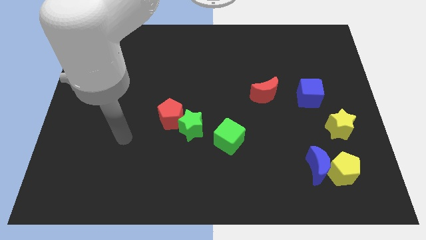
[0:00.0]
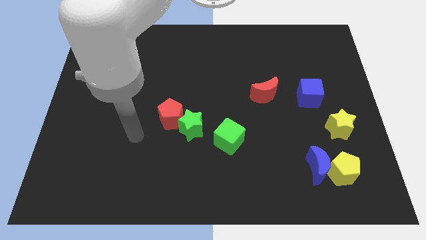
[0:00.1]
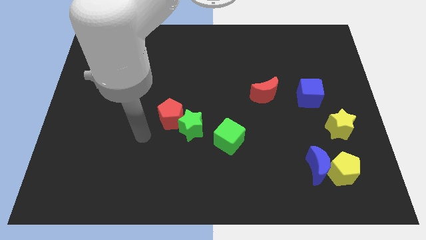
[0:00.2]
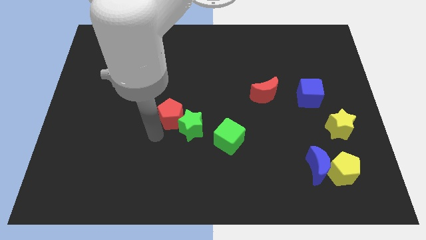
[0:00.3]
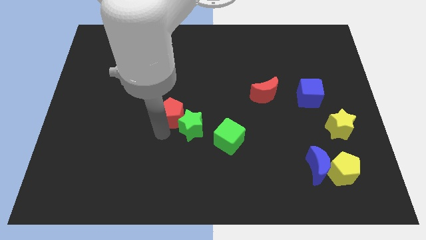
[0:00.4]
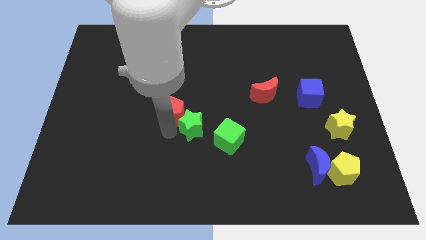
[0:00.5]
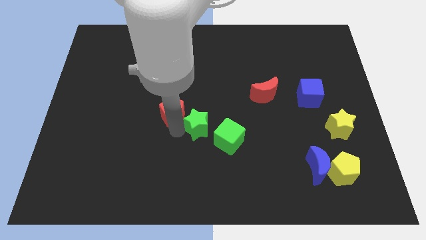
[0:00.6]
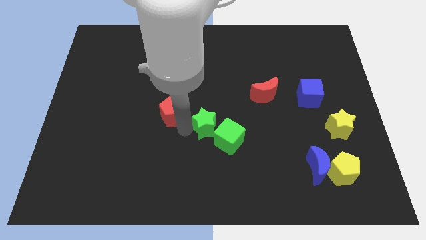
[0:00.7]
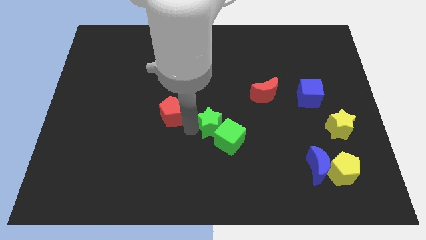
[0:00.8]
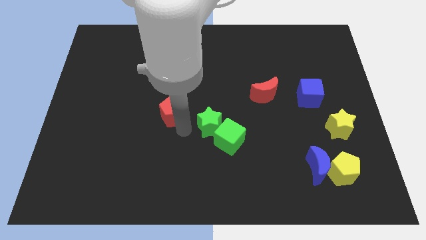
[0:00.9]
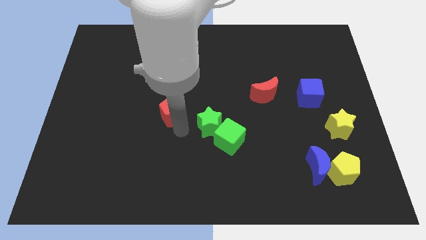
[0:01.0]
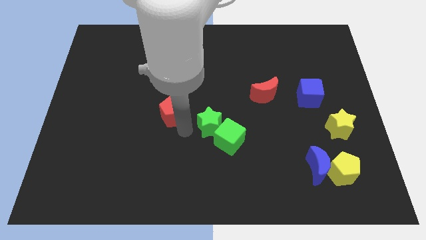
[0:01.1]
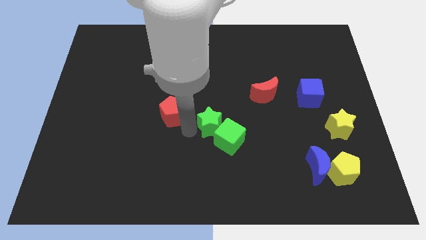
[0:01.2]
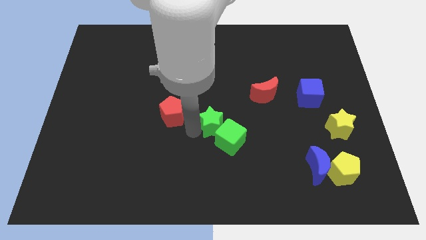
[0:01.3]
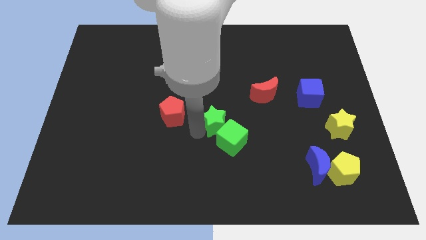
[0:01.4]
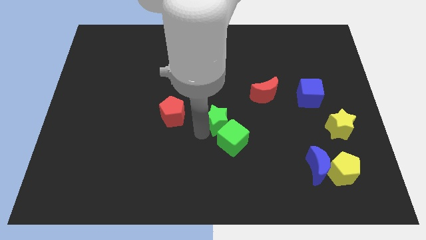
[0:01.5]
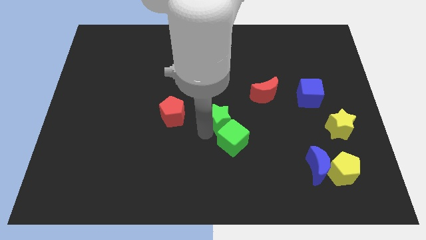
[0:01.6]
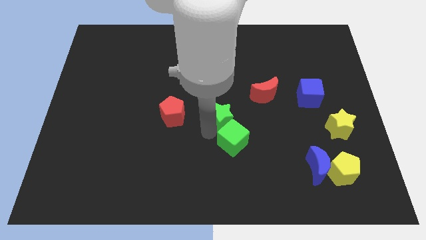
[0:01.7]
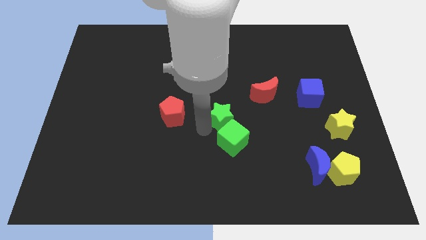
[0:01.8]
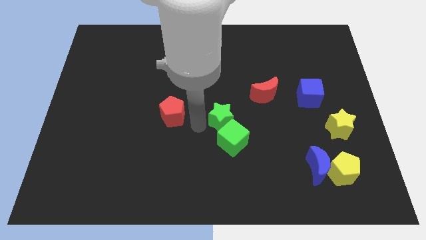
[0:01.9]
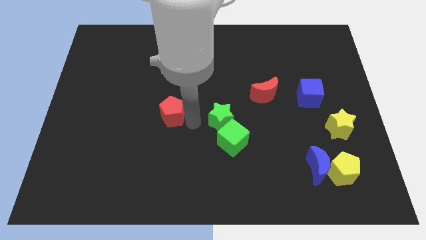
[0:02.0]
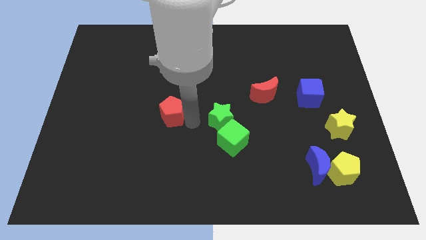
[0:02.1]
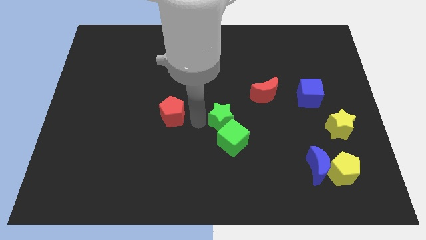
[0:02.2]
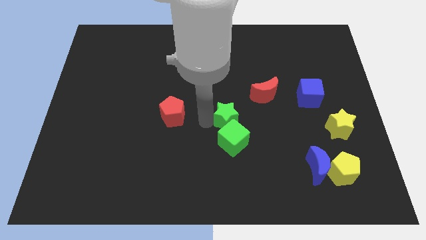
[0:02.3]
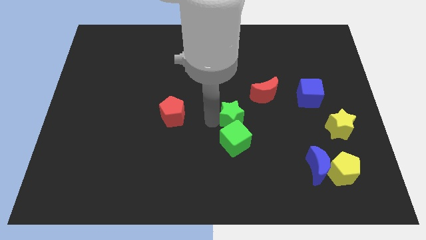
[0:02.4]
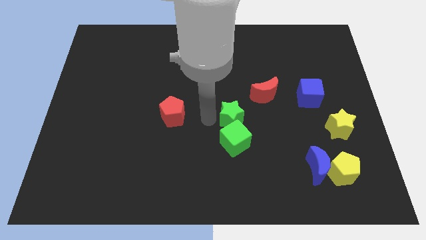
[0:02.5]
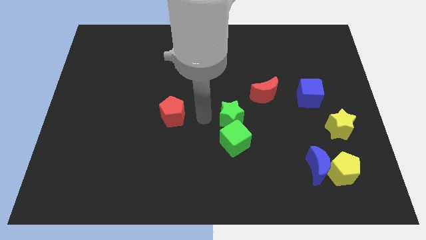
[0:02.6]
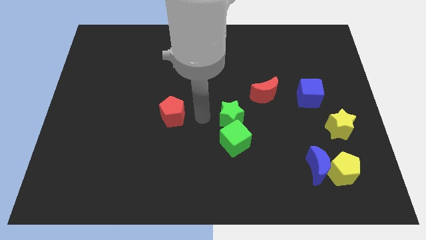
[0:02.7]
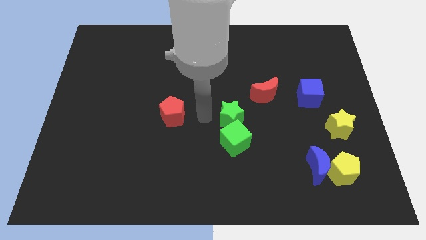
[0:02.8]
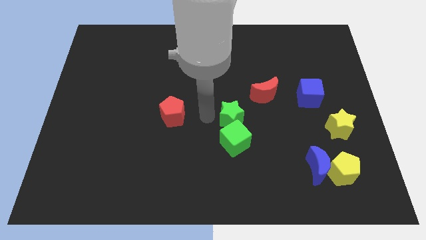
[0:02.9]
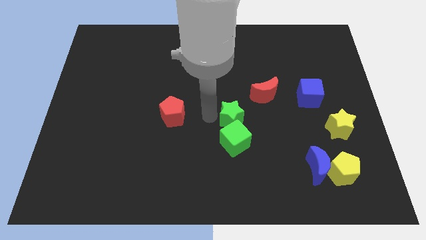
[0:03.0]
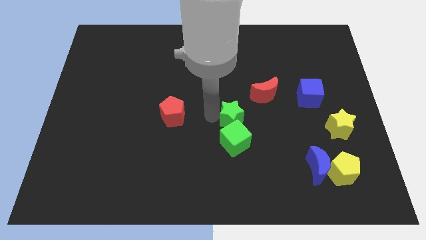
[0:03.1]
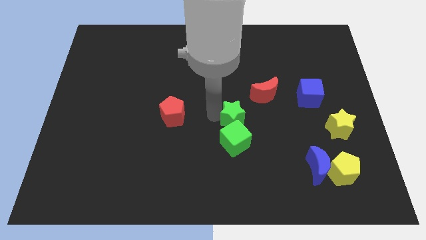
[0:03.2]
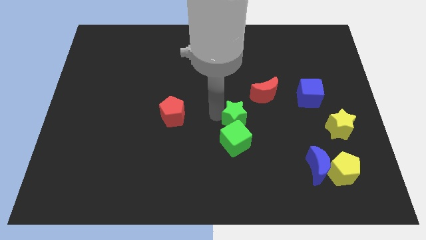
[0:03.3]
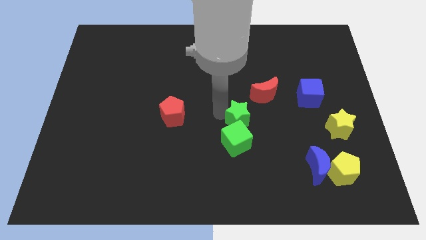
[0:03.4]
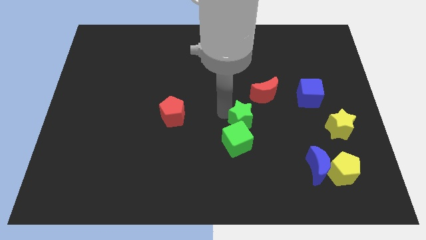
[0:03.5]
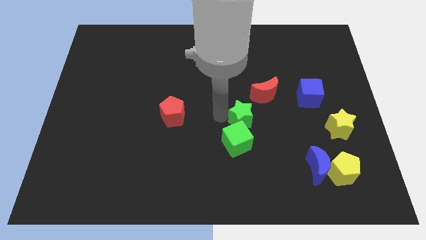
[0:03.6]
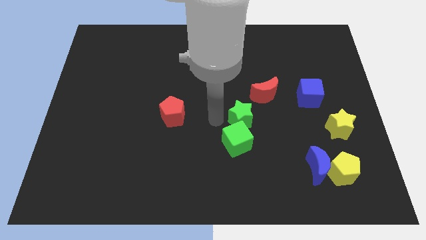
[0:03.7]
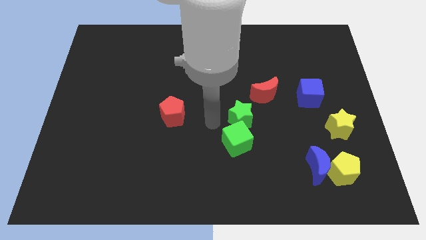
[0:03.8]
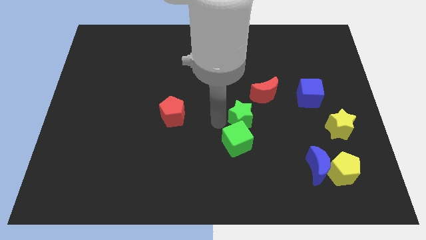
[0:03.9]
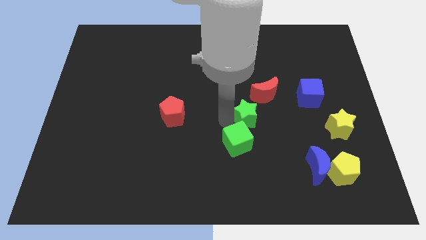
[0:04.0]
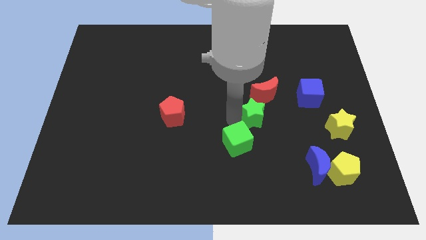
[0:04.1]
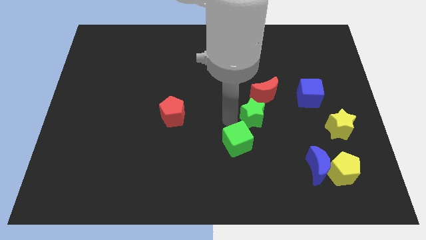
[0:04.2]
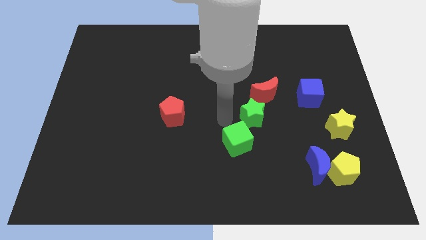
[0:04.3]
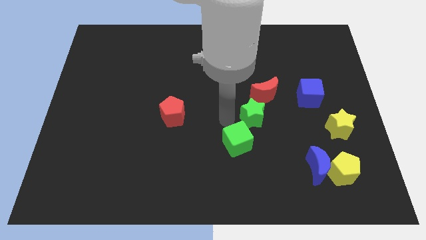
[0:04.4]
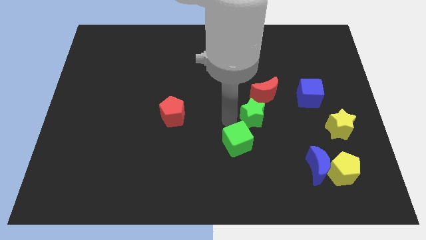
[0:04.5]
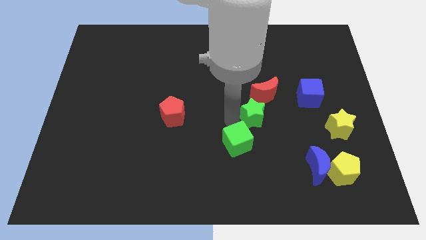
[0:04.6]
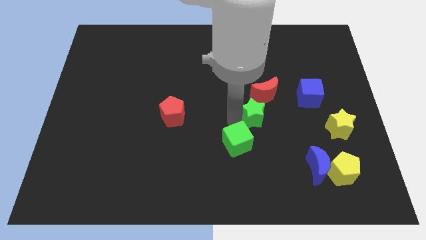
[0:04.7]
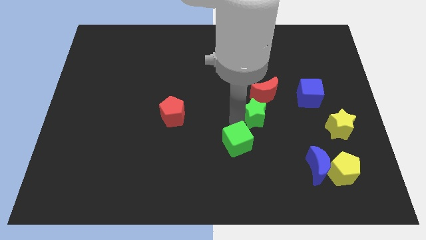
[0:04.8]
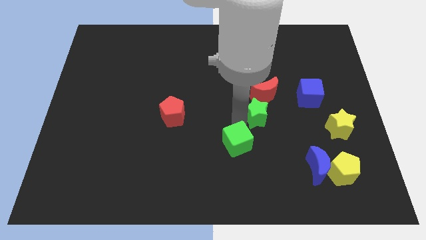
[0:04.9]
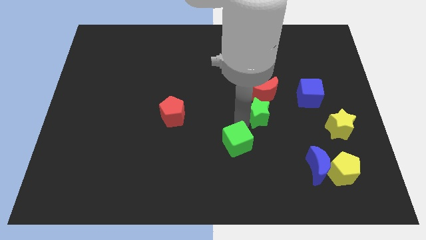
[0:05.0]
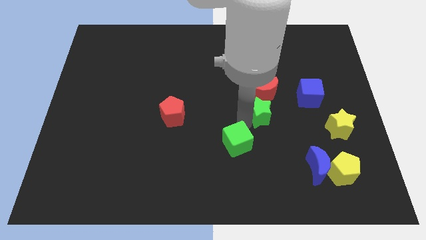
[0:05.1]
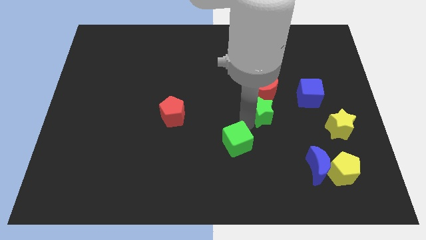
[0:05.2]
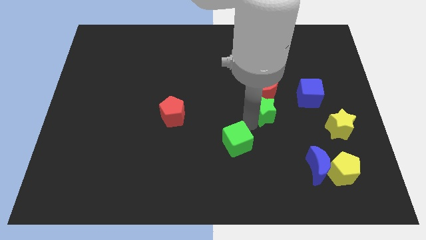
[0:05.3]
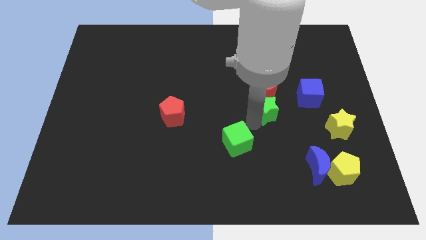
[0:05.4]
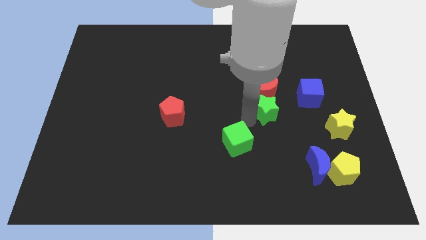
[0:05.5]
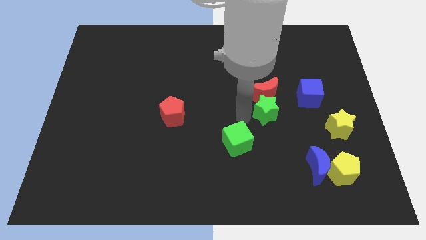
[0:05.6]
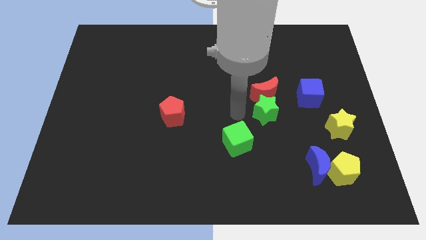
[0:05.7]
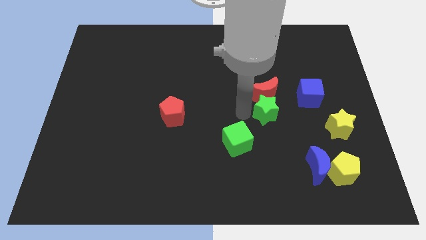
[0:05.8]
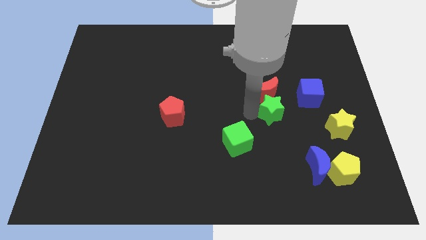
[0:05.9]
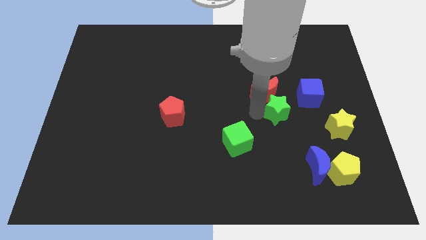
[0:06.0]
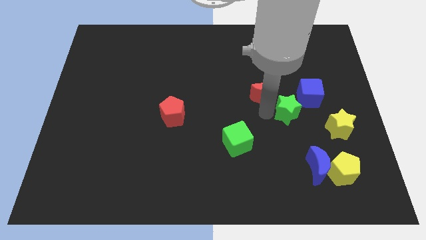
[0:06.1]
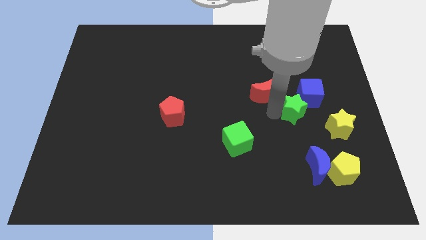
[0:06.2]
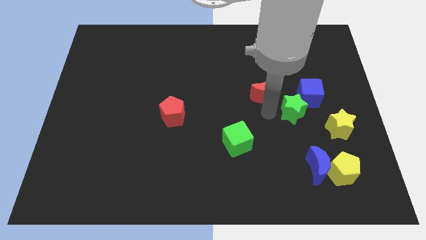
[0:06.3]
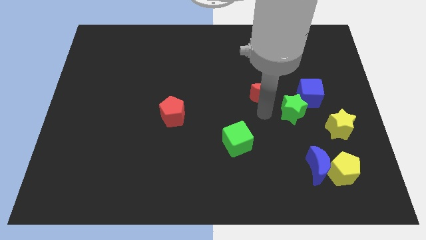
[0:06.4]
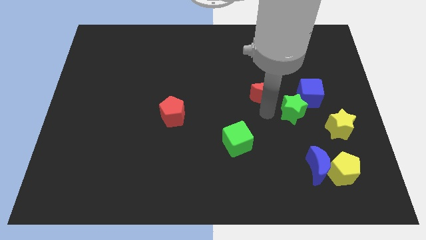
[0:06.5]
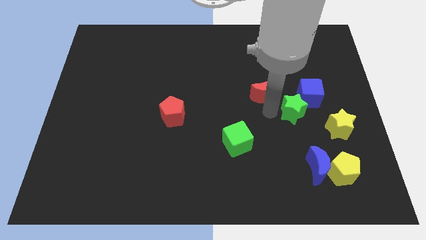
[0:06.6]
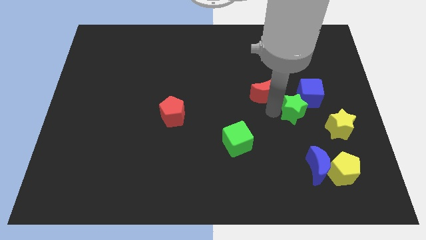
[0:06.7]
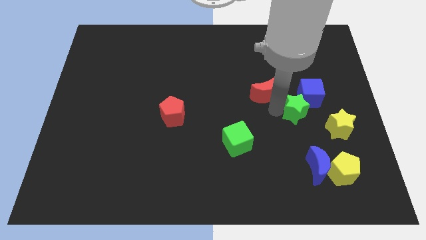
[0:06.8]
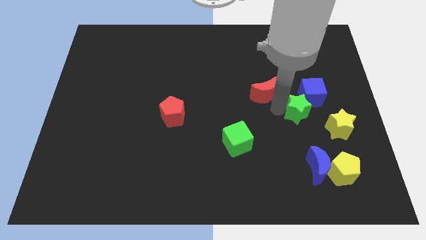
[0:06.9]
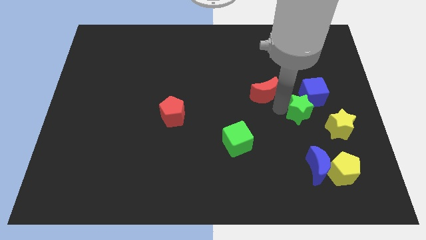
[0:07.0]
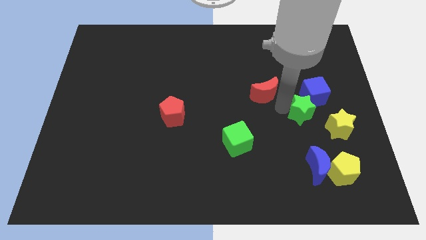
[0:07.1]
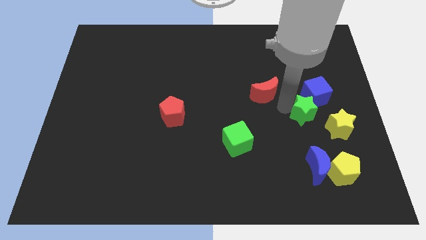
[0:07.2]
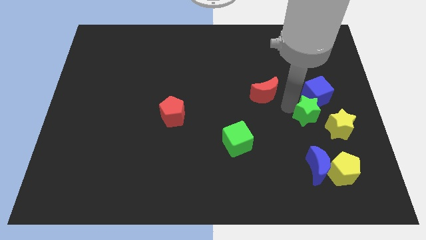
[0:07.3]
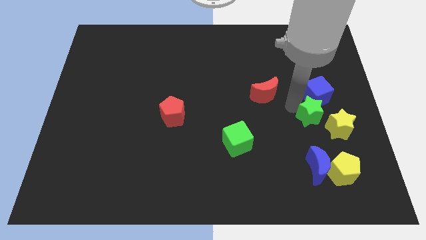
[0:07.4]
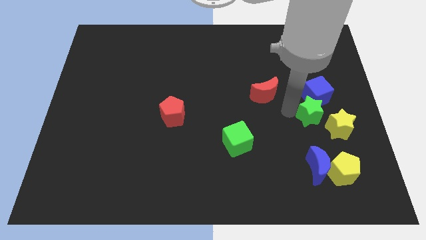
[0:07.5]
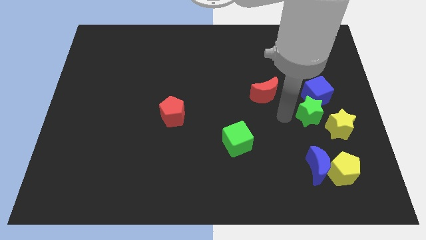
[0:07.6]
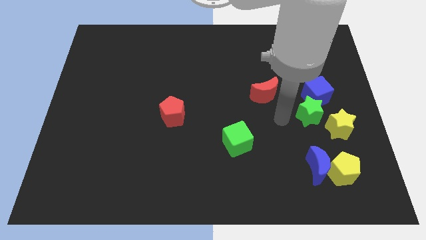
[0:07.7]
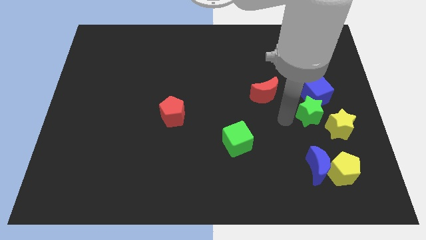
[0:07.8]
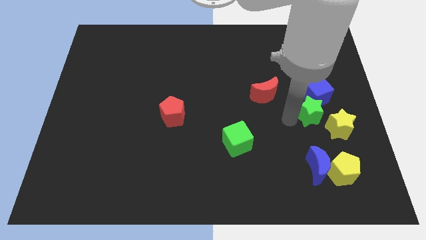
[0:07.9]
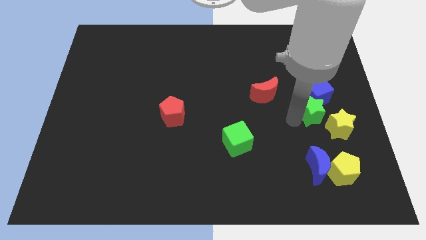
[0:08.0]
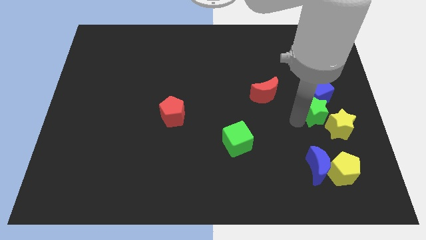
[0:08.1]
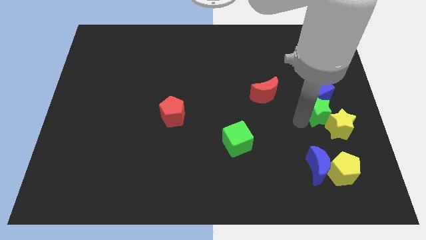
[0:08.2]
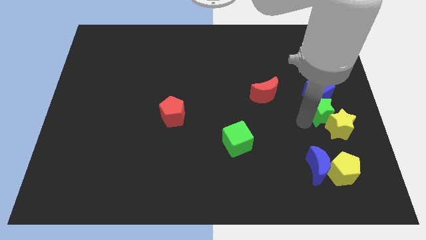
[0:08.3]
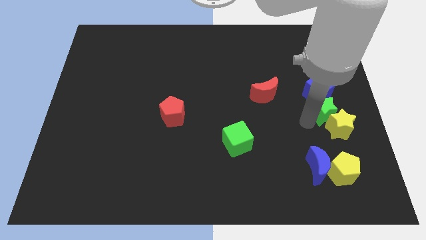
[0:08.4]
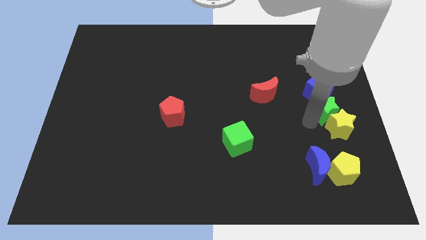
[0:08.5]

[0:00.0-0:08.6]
move the green star to the right side
